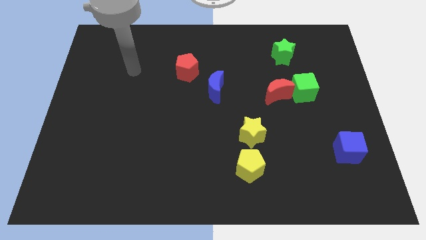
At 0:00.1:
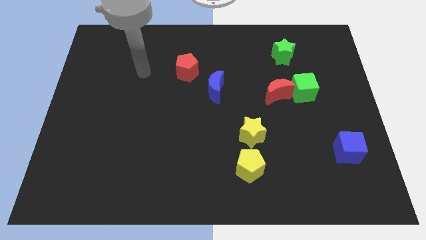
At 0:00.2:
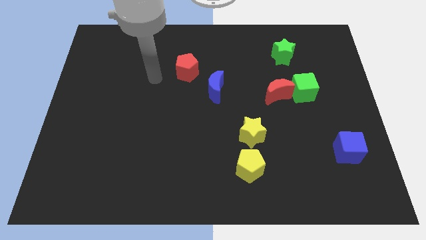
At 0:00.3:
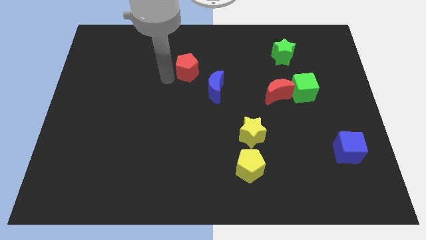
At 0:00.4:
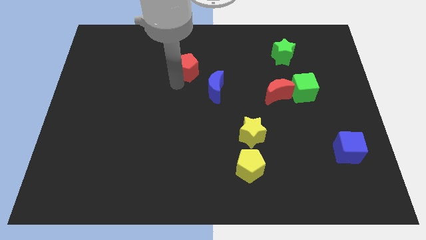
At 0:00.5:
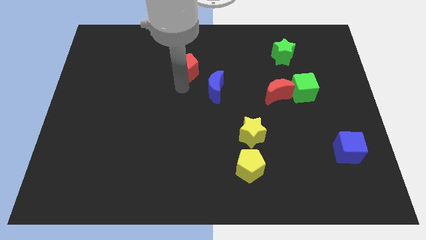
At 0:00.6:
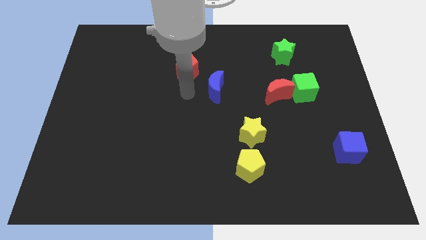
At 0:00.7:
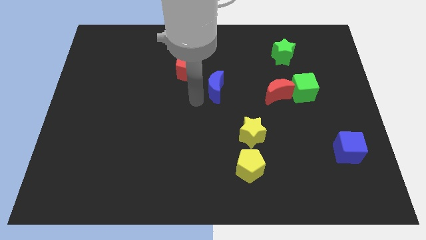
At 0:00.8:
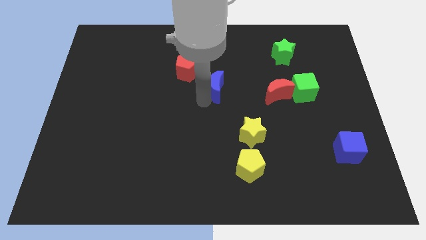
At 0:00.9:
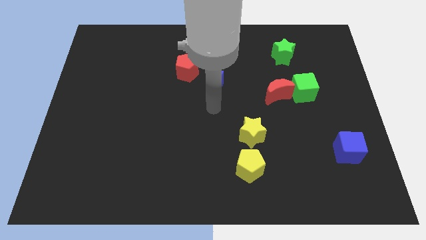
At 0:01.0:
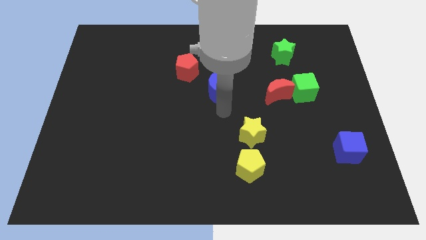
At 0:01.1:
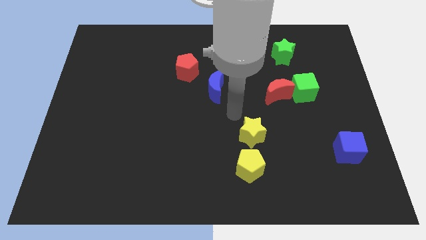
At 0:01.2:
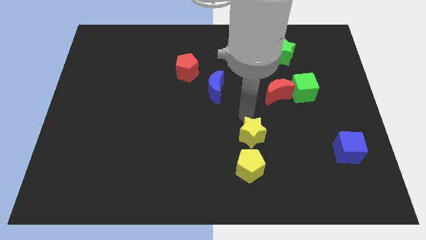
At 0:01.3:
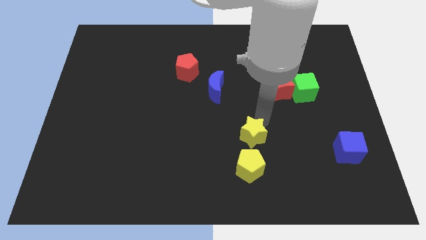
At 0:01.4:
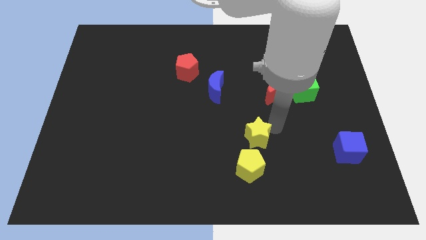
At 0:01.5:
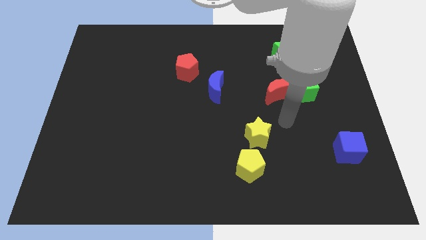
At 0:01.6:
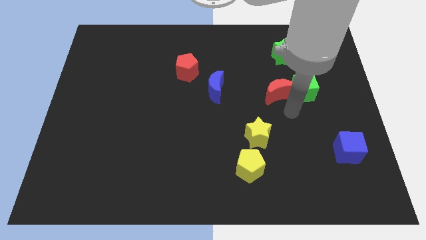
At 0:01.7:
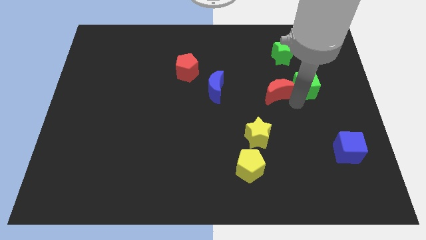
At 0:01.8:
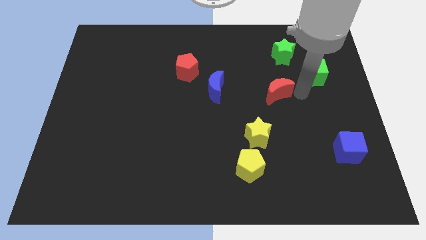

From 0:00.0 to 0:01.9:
move the red moon away from the green cube

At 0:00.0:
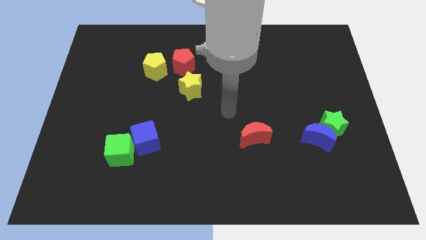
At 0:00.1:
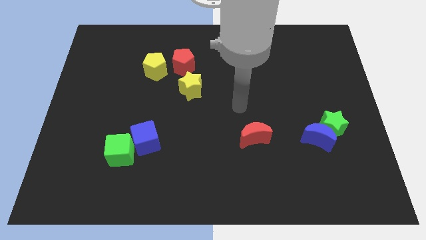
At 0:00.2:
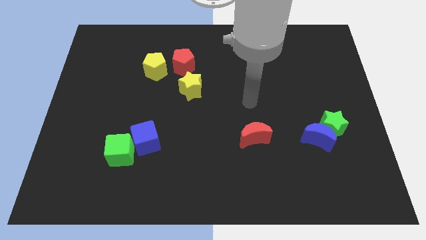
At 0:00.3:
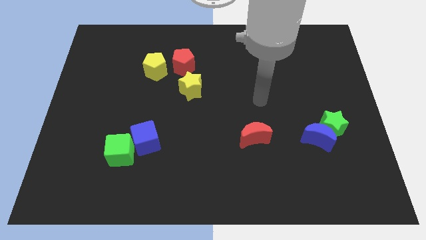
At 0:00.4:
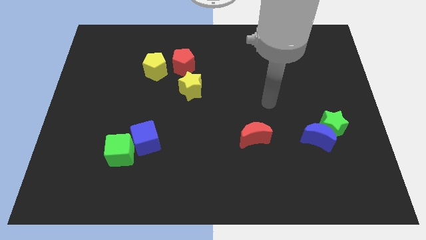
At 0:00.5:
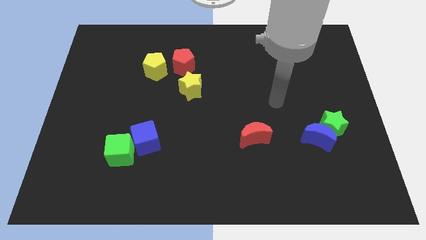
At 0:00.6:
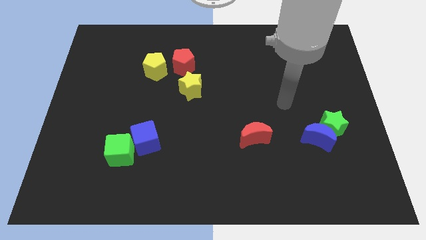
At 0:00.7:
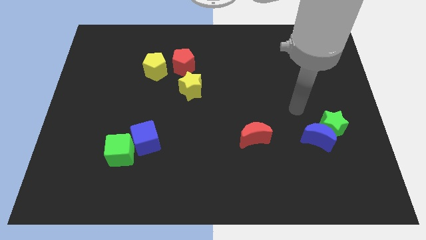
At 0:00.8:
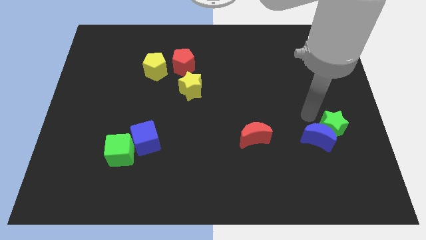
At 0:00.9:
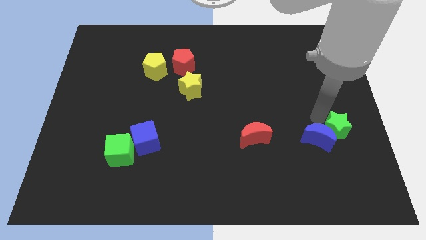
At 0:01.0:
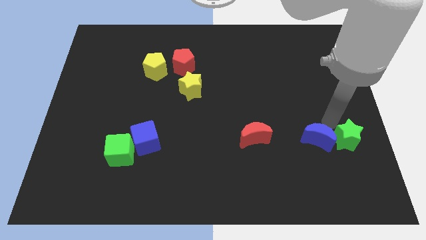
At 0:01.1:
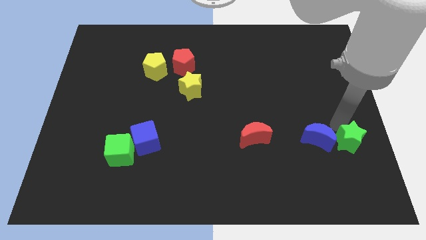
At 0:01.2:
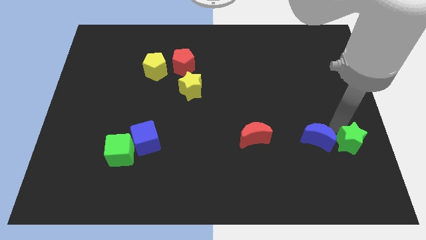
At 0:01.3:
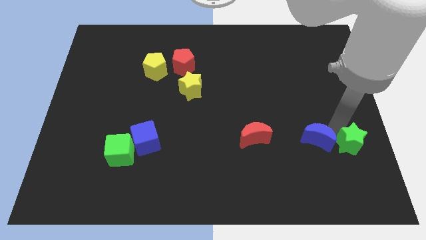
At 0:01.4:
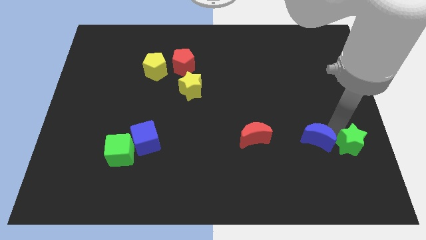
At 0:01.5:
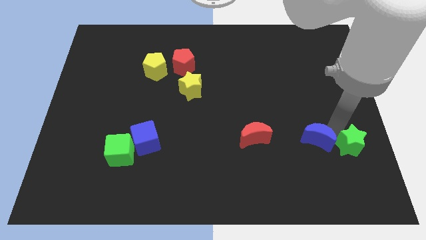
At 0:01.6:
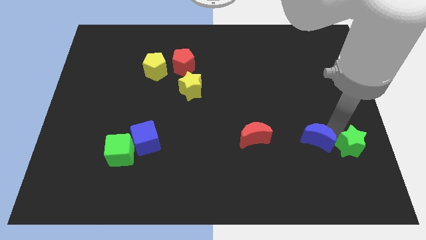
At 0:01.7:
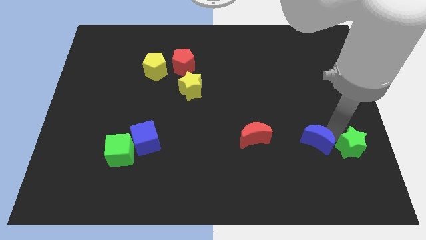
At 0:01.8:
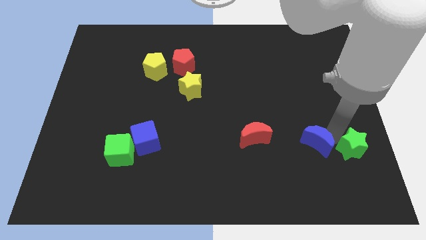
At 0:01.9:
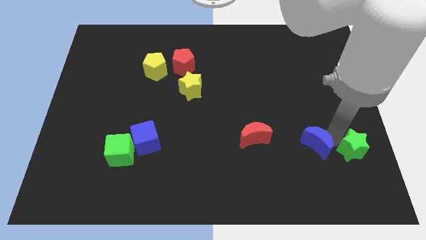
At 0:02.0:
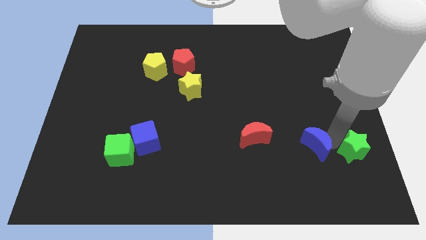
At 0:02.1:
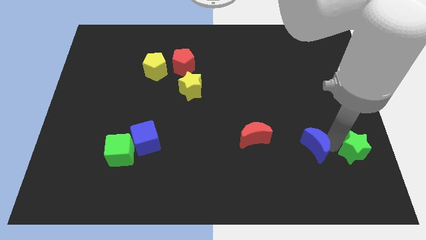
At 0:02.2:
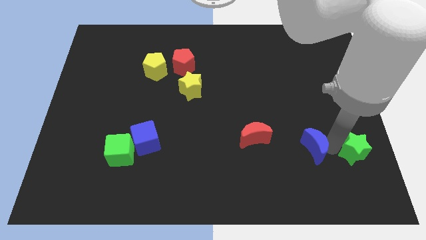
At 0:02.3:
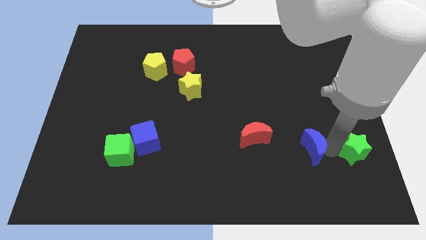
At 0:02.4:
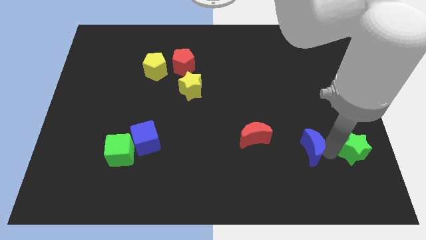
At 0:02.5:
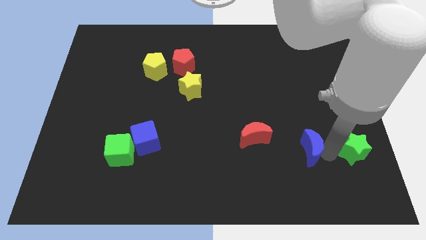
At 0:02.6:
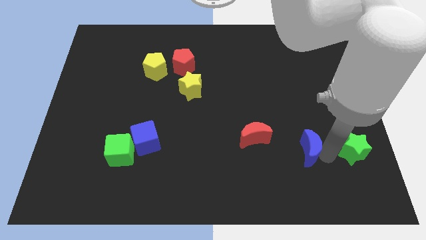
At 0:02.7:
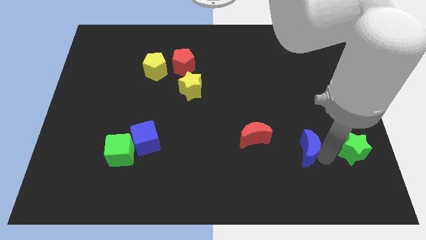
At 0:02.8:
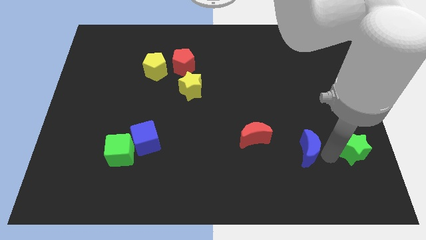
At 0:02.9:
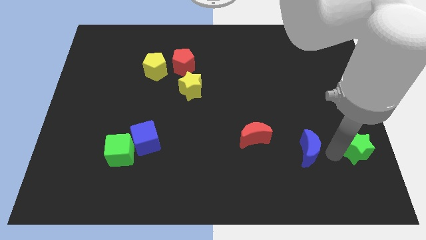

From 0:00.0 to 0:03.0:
pull the blue moon apart from the green star

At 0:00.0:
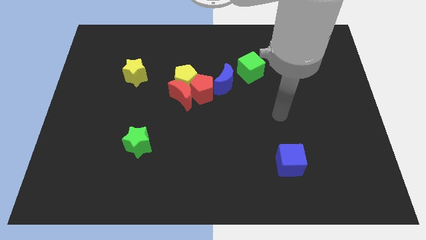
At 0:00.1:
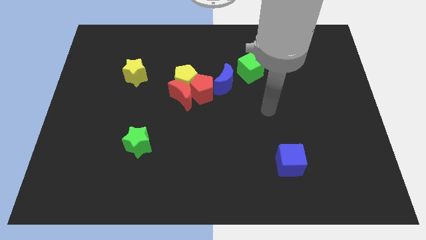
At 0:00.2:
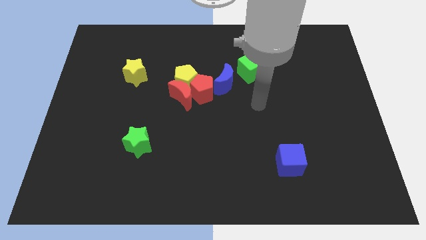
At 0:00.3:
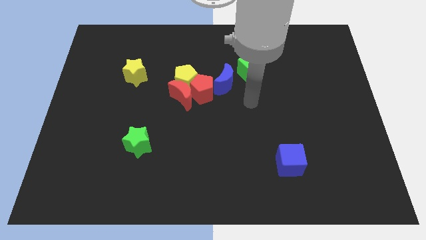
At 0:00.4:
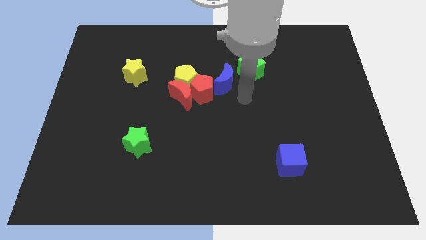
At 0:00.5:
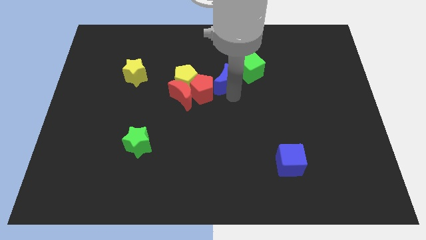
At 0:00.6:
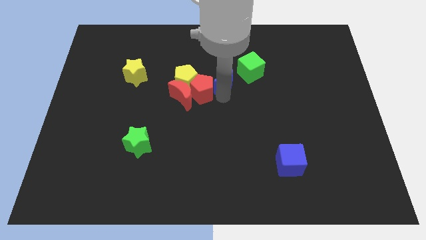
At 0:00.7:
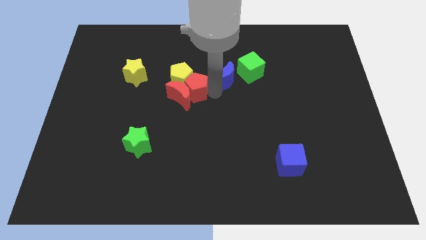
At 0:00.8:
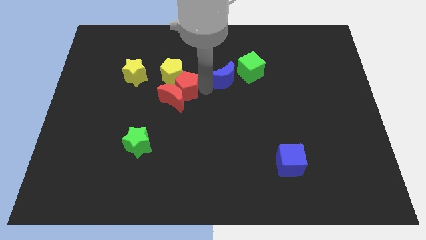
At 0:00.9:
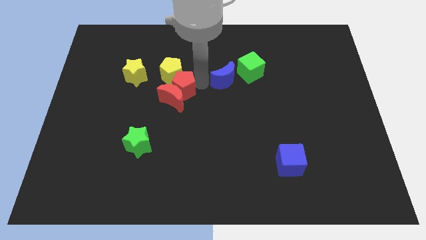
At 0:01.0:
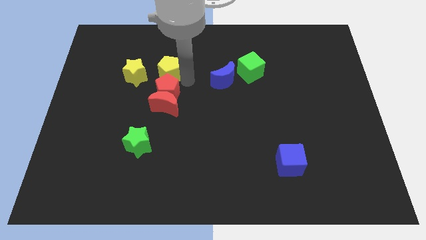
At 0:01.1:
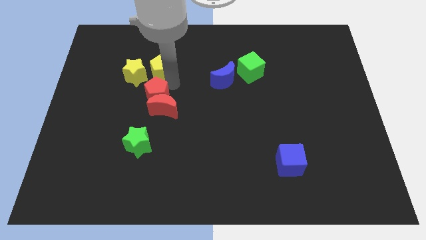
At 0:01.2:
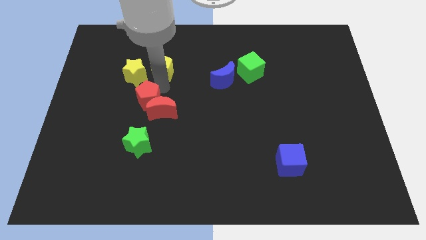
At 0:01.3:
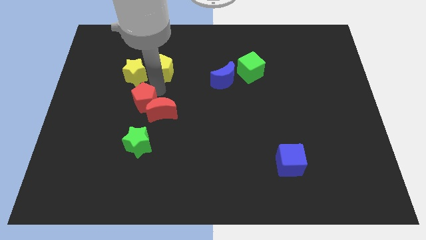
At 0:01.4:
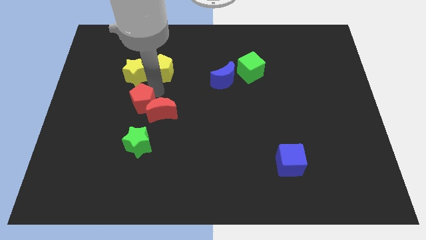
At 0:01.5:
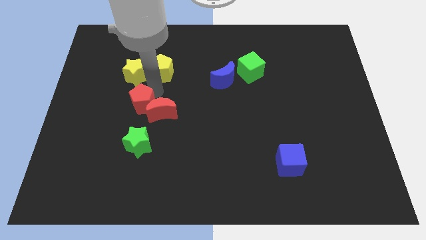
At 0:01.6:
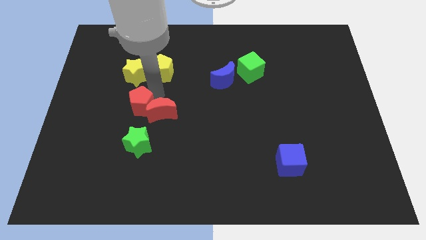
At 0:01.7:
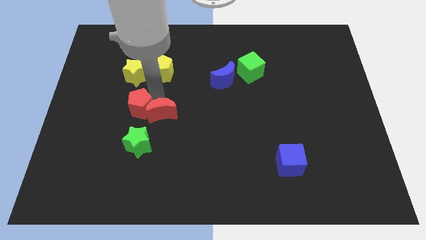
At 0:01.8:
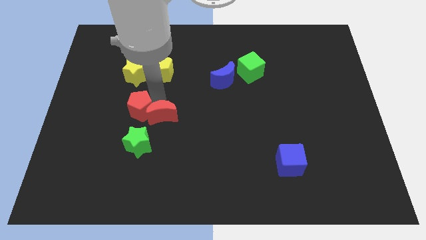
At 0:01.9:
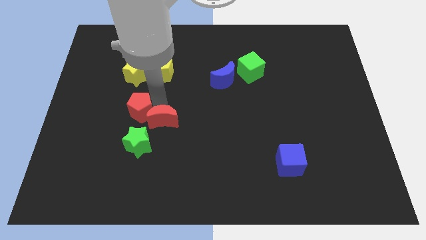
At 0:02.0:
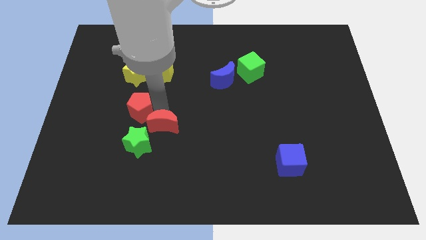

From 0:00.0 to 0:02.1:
pull the red moon apart from the red pentagon and yellow pentagon

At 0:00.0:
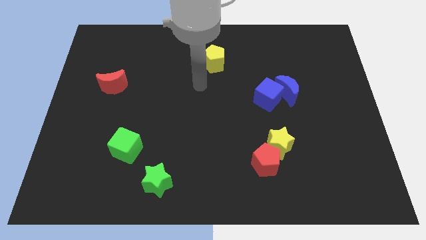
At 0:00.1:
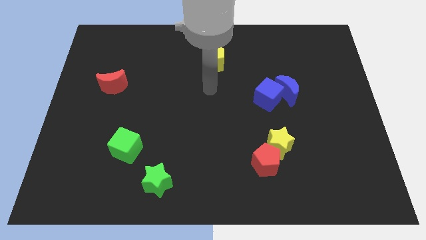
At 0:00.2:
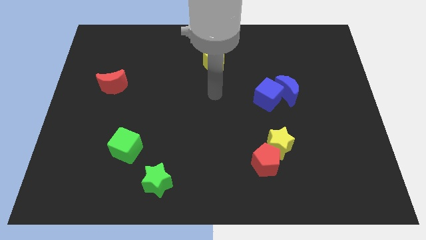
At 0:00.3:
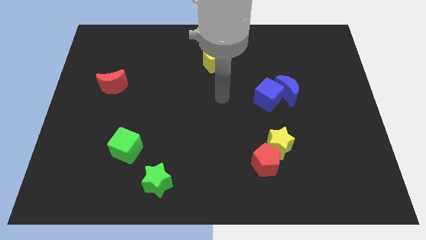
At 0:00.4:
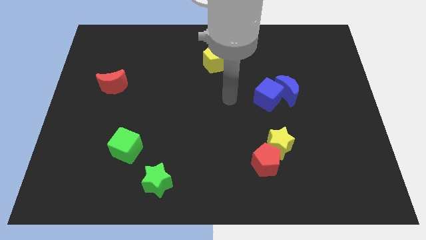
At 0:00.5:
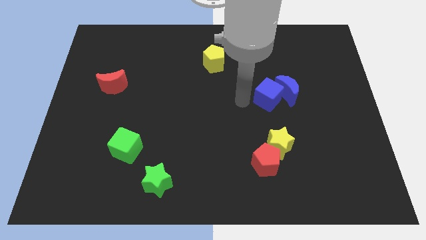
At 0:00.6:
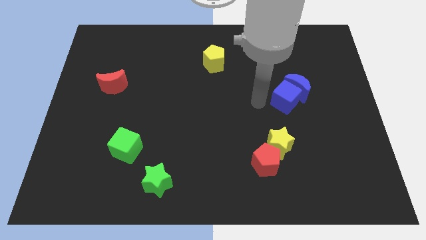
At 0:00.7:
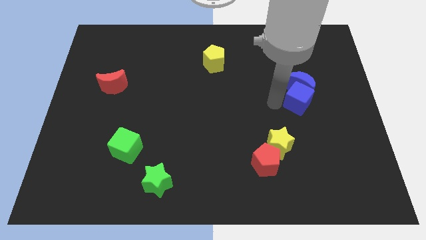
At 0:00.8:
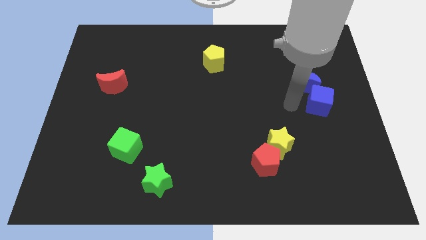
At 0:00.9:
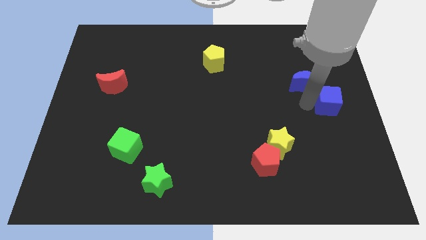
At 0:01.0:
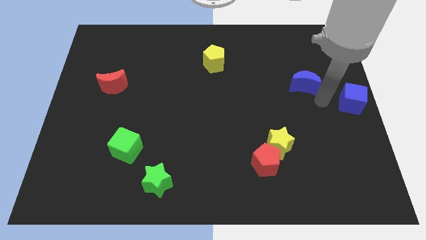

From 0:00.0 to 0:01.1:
separate the blue moon from the blue cube

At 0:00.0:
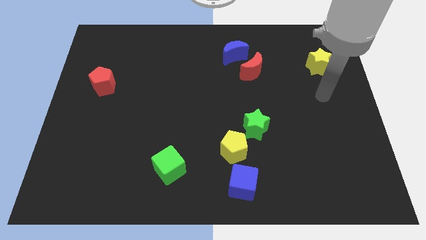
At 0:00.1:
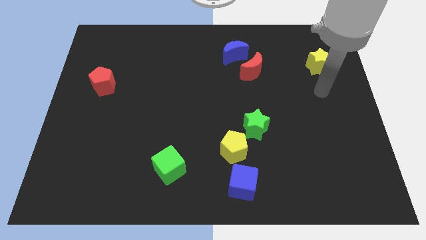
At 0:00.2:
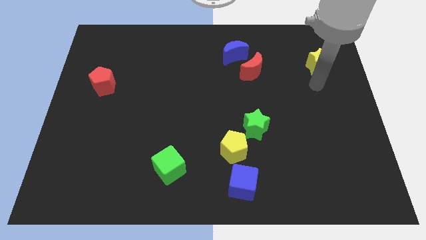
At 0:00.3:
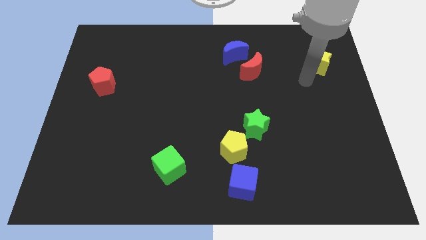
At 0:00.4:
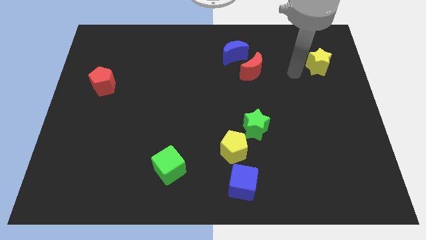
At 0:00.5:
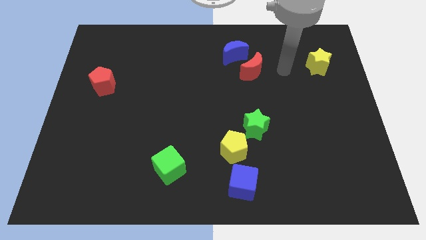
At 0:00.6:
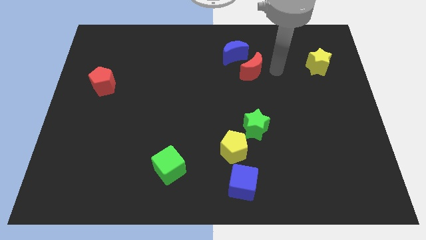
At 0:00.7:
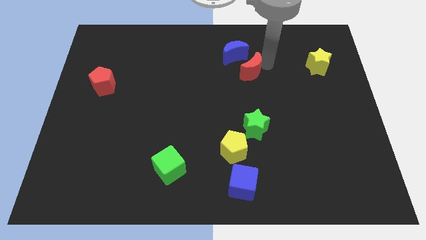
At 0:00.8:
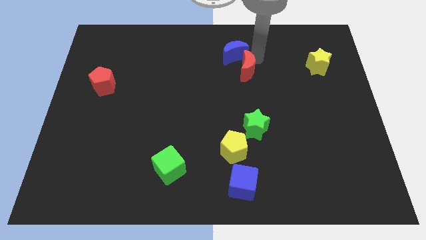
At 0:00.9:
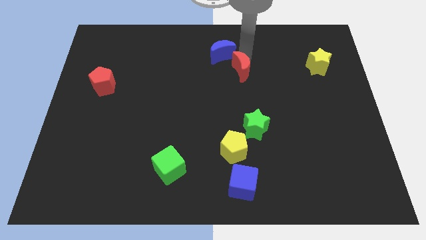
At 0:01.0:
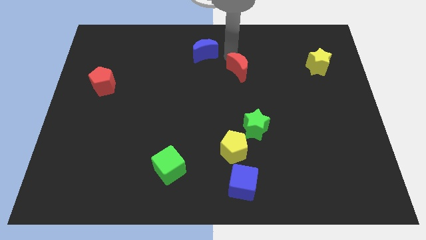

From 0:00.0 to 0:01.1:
pull the red moon apart from the blue moon

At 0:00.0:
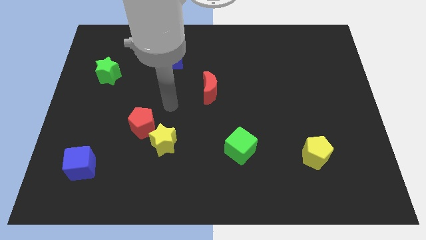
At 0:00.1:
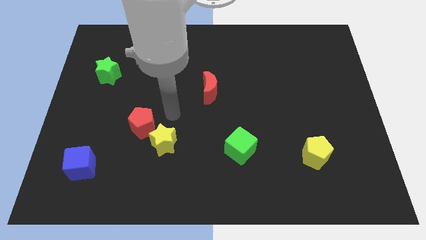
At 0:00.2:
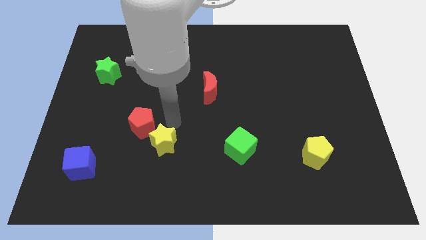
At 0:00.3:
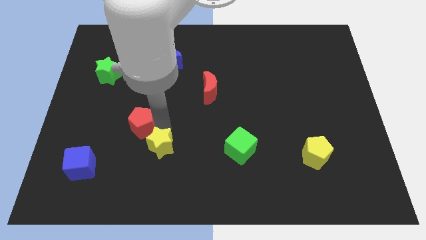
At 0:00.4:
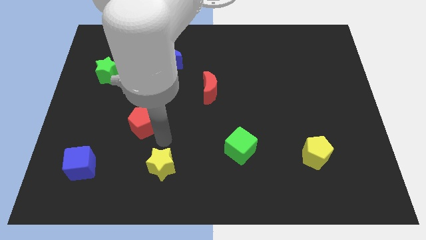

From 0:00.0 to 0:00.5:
separate the red pentagon from the yellow star
